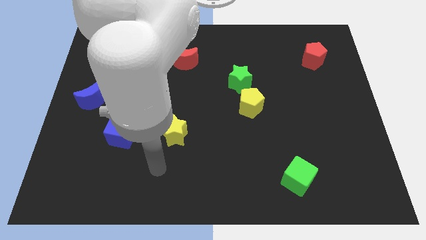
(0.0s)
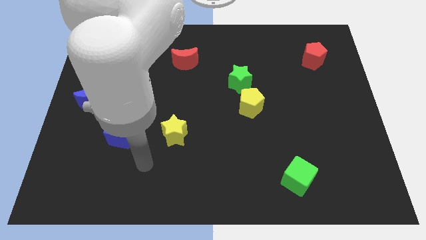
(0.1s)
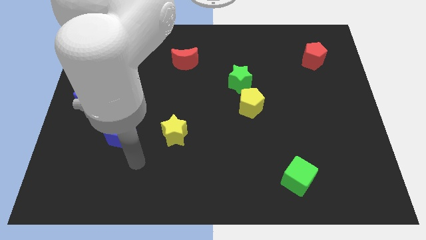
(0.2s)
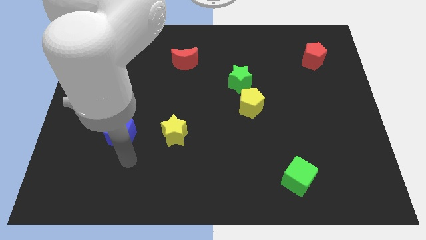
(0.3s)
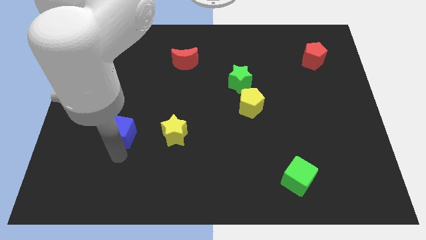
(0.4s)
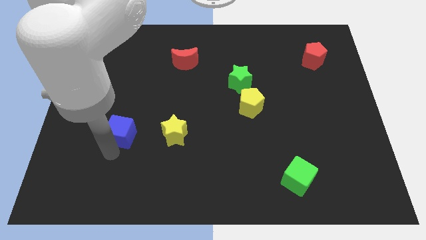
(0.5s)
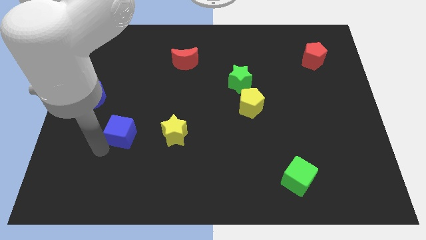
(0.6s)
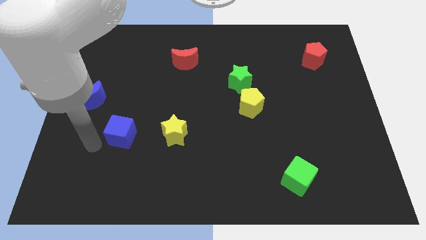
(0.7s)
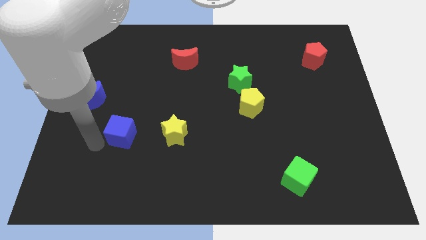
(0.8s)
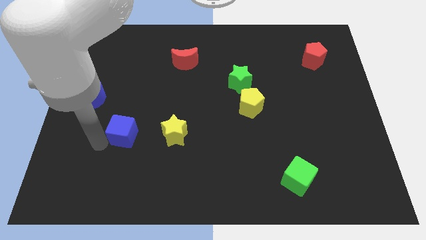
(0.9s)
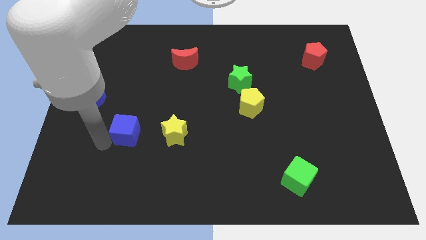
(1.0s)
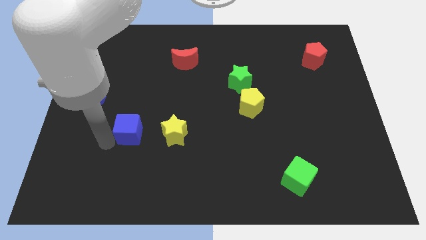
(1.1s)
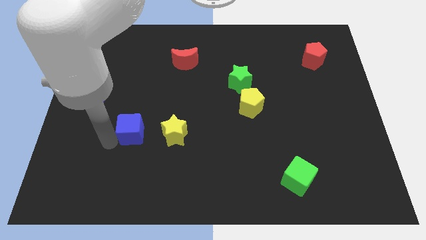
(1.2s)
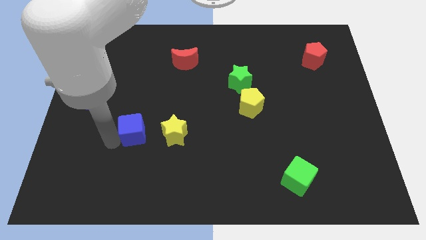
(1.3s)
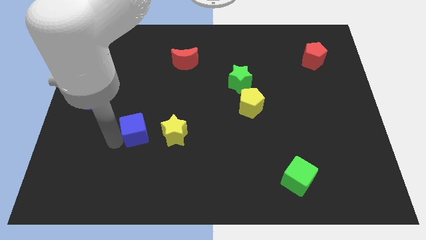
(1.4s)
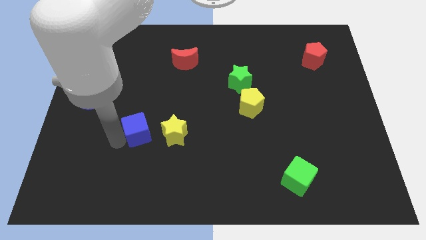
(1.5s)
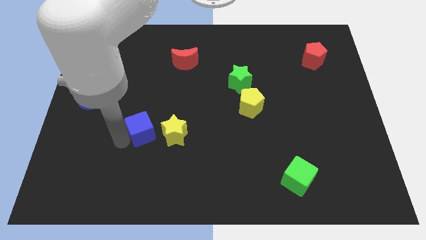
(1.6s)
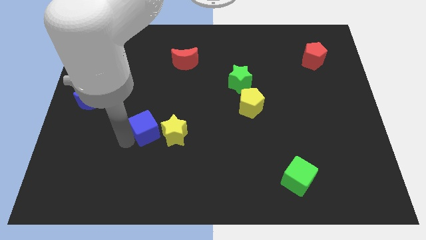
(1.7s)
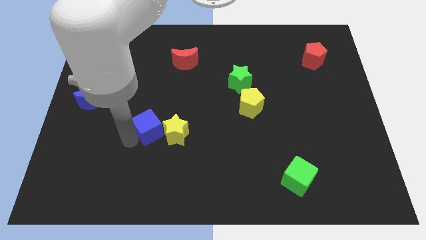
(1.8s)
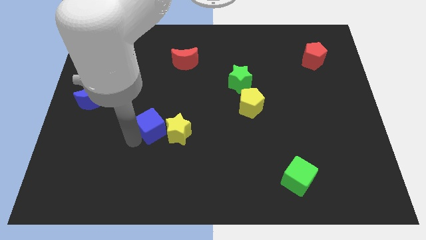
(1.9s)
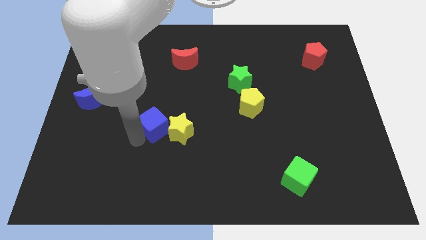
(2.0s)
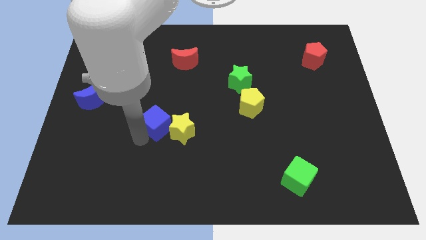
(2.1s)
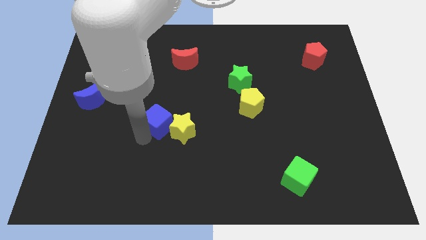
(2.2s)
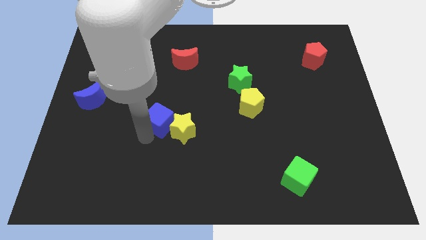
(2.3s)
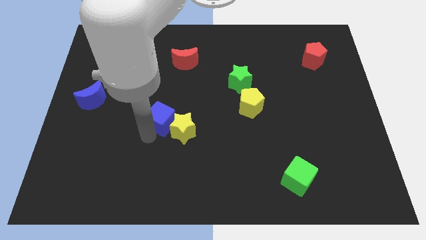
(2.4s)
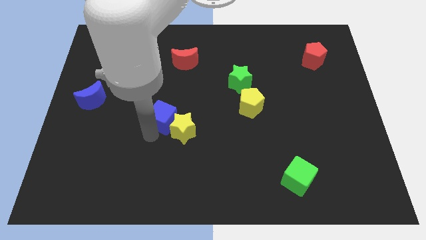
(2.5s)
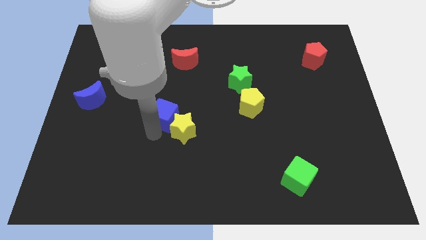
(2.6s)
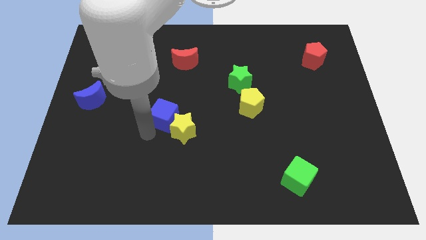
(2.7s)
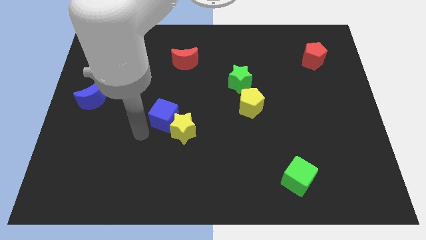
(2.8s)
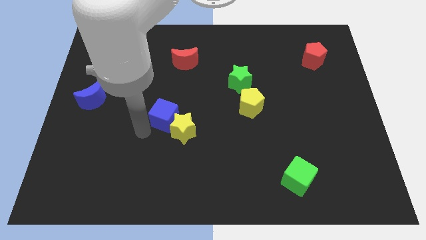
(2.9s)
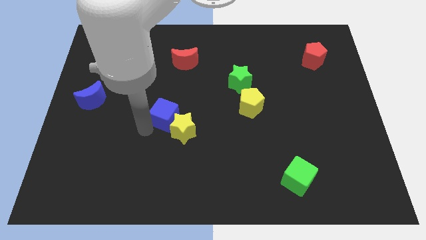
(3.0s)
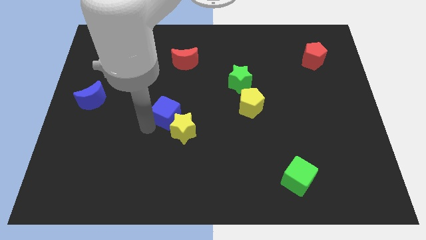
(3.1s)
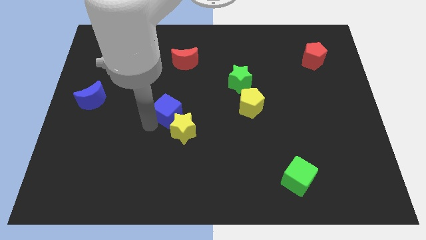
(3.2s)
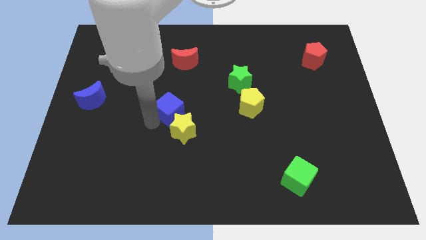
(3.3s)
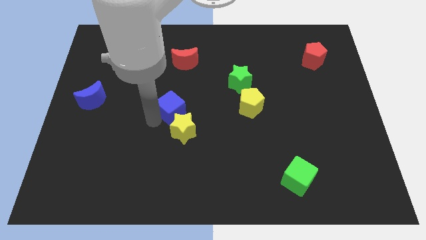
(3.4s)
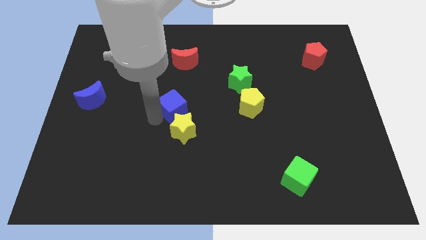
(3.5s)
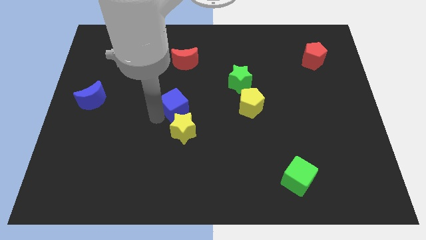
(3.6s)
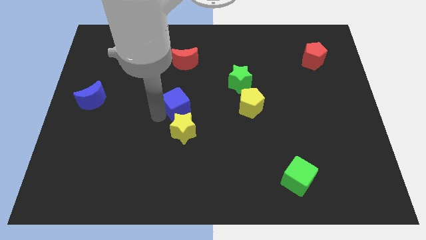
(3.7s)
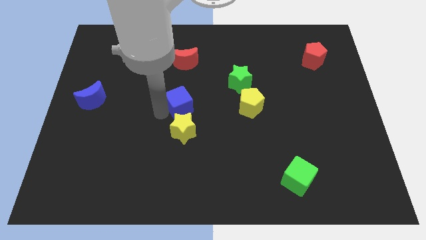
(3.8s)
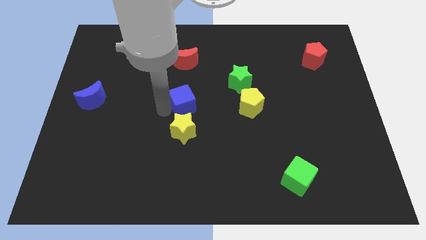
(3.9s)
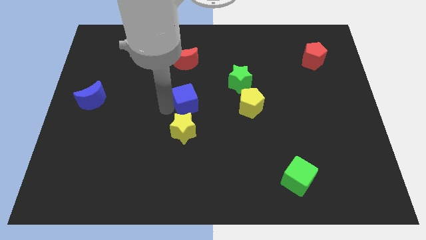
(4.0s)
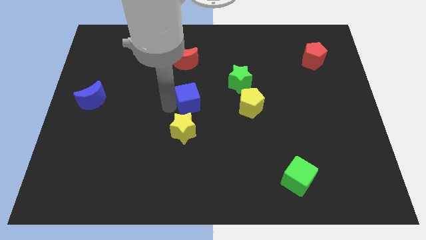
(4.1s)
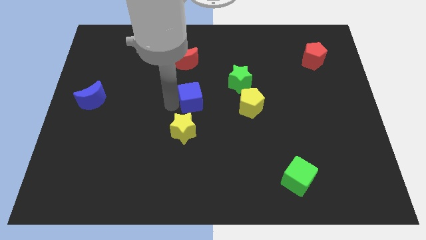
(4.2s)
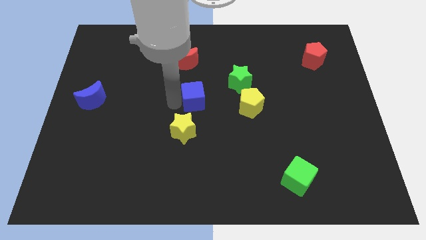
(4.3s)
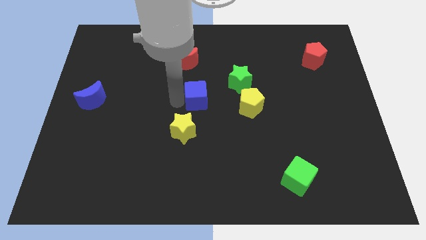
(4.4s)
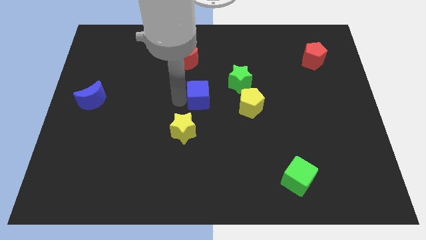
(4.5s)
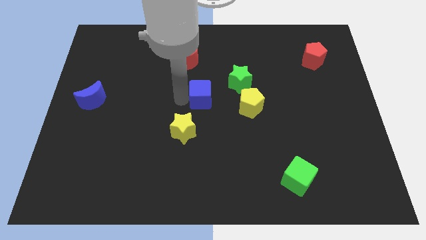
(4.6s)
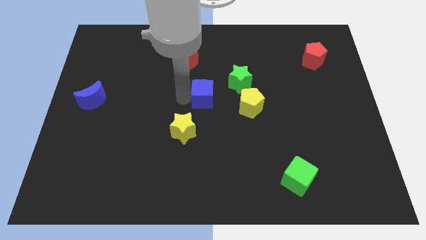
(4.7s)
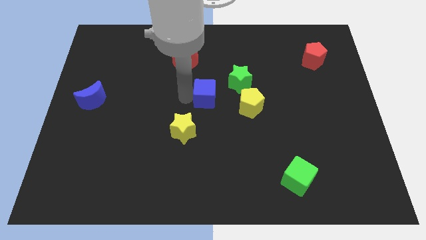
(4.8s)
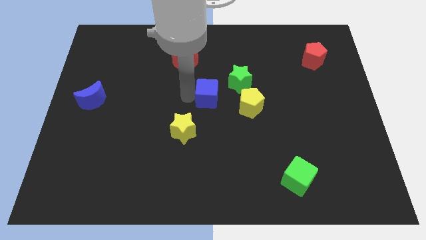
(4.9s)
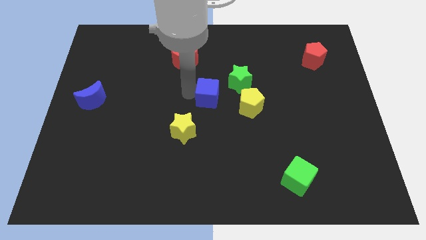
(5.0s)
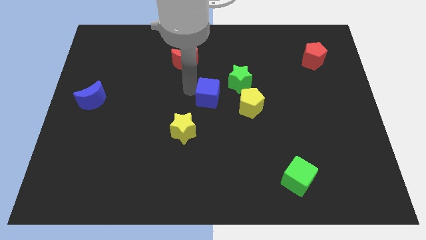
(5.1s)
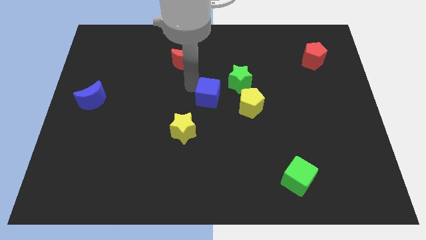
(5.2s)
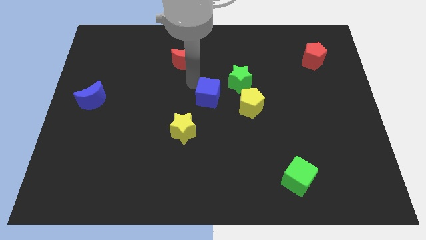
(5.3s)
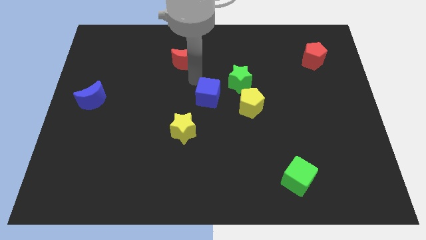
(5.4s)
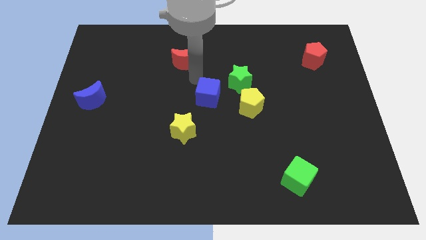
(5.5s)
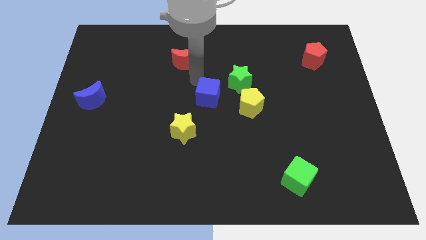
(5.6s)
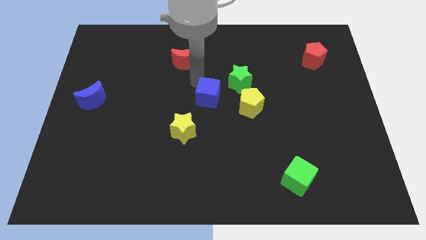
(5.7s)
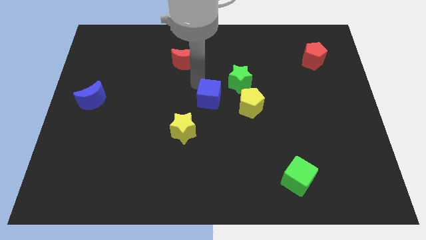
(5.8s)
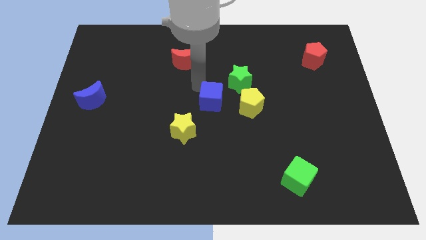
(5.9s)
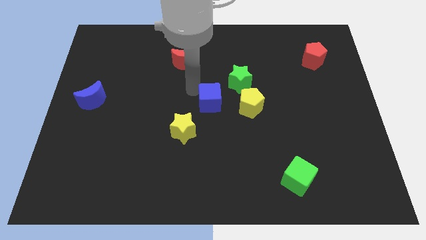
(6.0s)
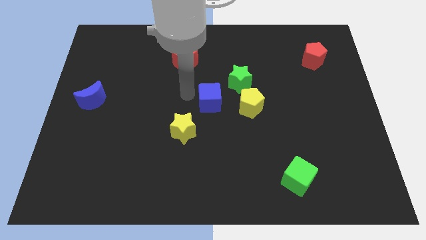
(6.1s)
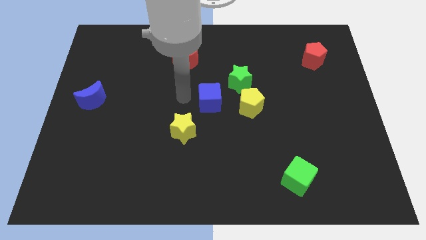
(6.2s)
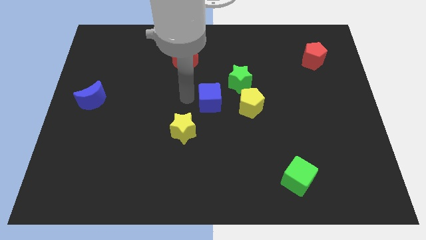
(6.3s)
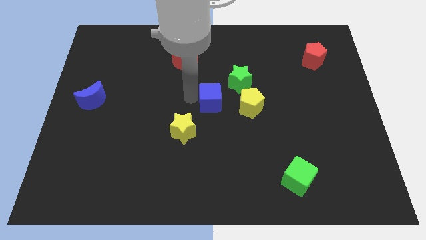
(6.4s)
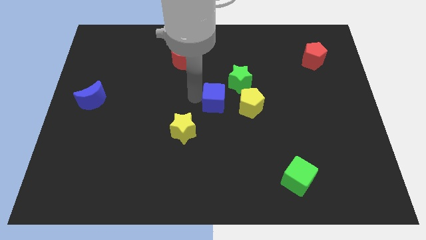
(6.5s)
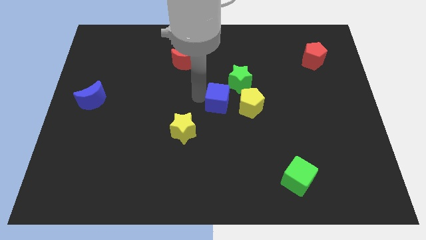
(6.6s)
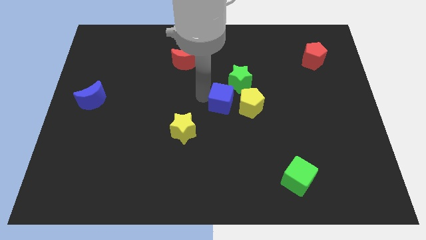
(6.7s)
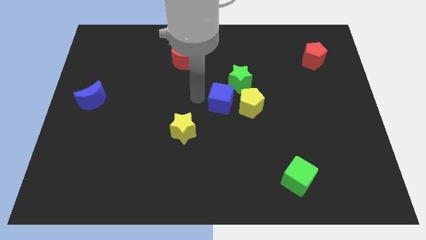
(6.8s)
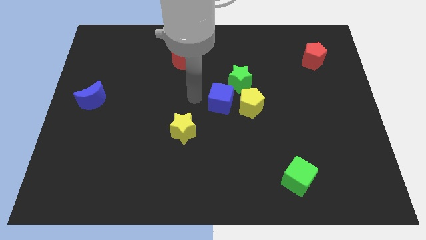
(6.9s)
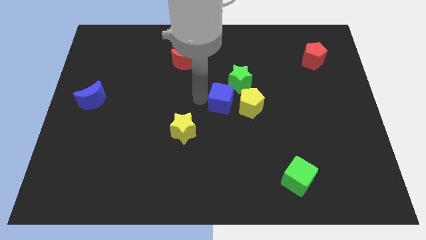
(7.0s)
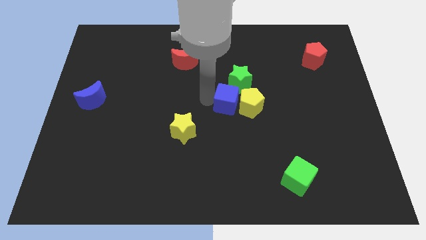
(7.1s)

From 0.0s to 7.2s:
push the blue cube next to the yellow pentagon
